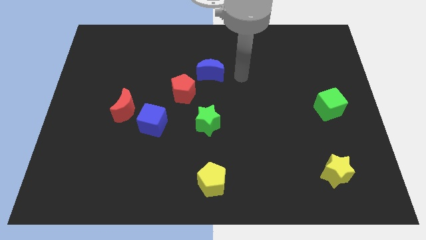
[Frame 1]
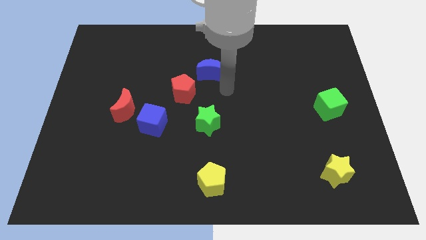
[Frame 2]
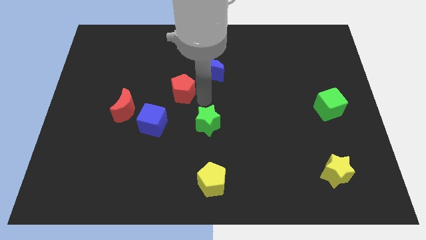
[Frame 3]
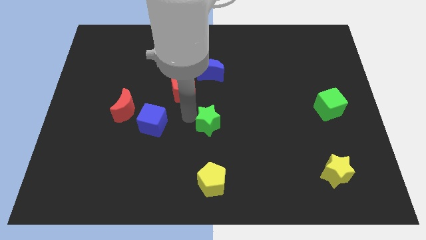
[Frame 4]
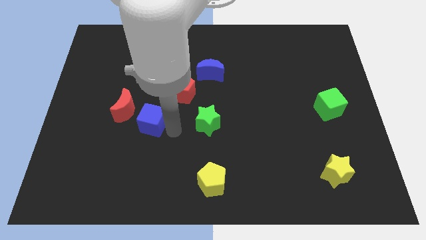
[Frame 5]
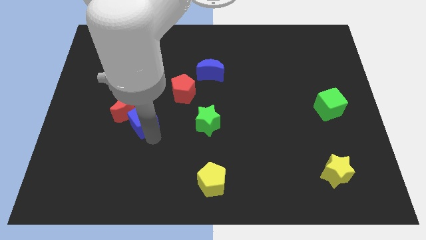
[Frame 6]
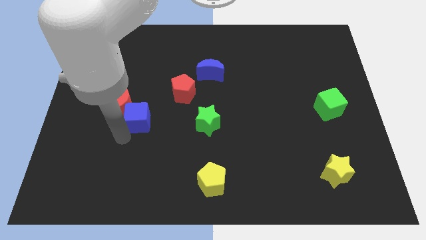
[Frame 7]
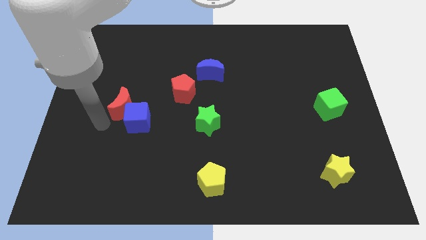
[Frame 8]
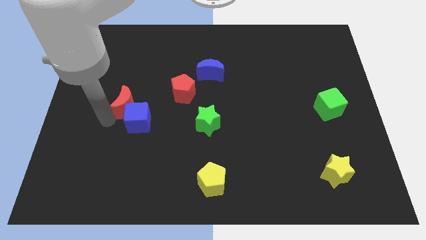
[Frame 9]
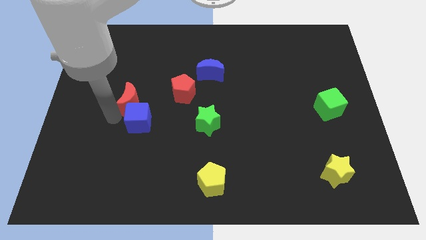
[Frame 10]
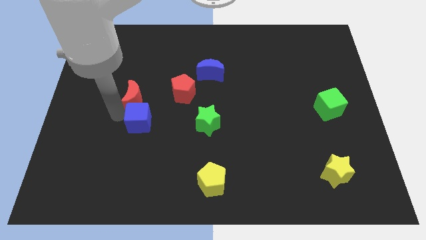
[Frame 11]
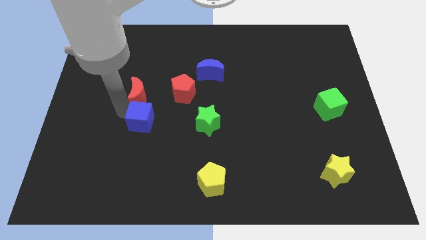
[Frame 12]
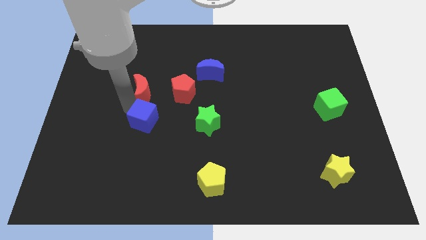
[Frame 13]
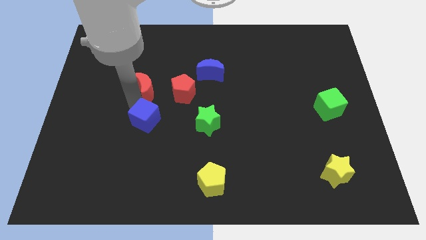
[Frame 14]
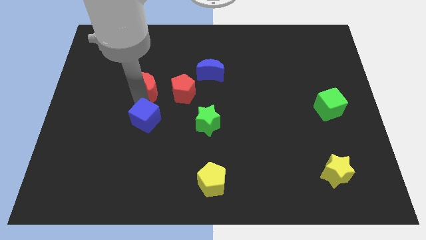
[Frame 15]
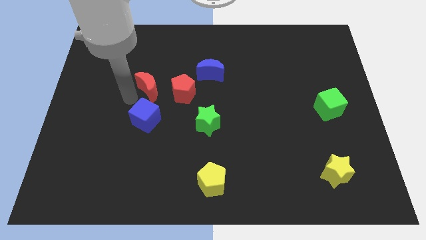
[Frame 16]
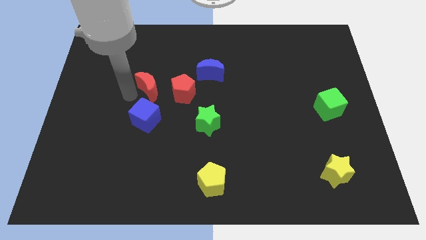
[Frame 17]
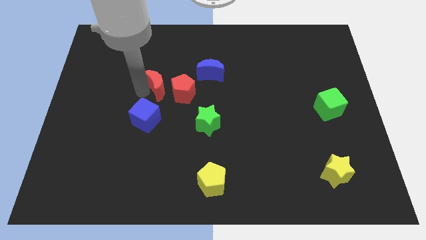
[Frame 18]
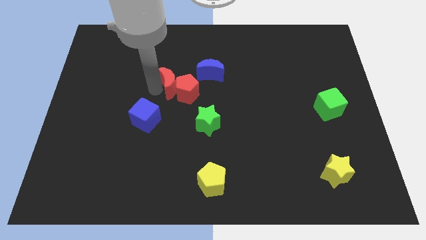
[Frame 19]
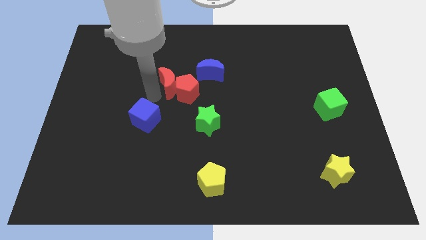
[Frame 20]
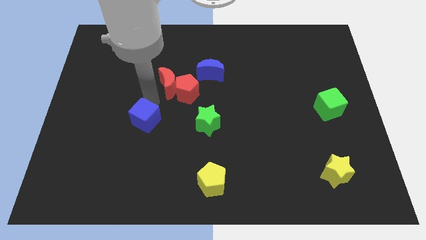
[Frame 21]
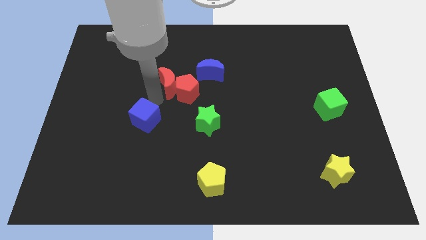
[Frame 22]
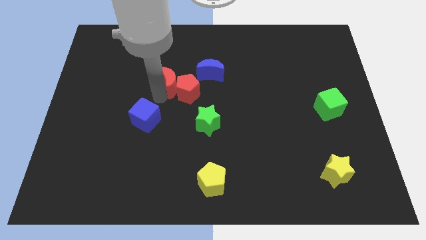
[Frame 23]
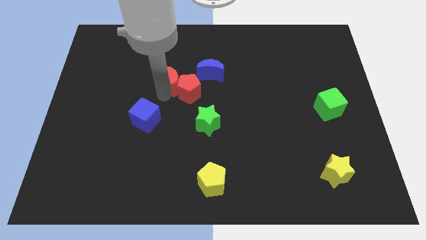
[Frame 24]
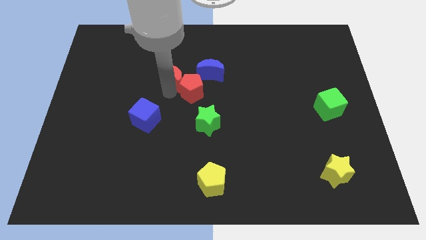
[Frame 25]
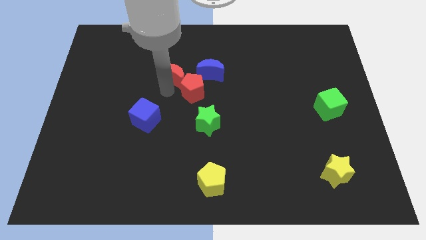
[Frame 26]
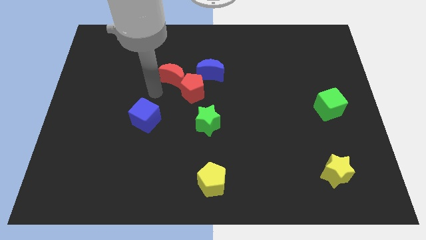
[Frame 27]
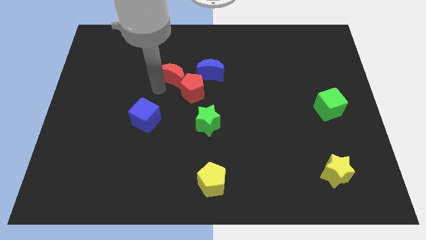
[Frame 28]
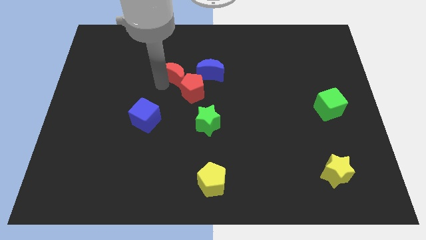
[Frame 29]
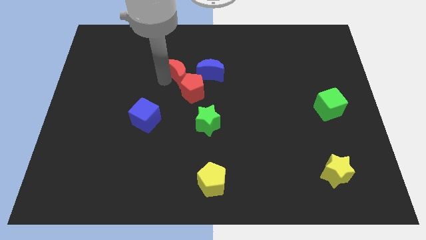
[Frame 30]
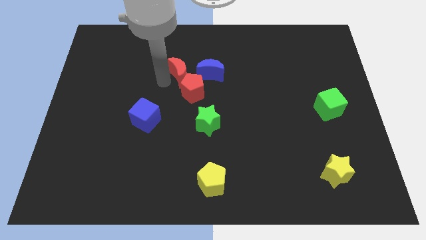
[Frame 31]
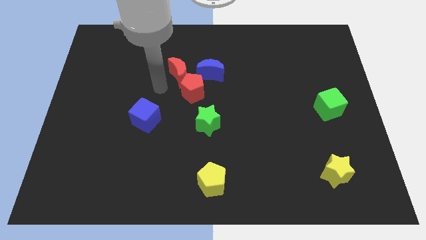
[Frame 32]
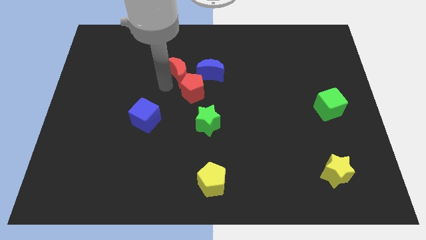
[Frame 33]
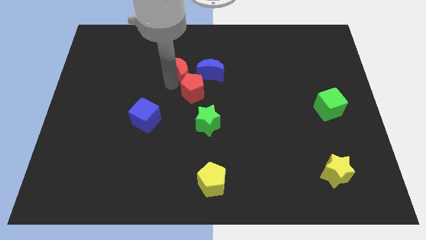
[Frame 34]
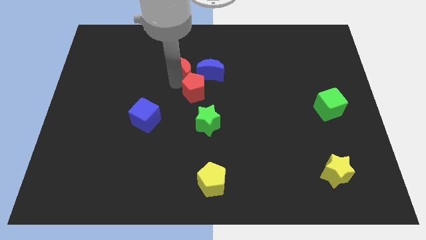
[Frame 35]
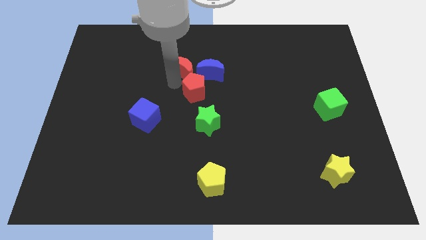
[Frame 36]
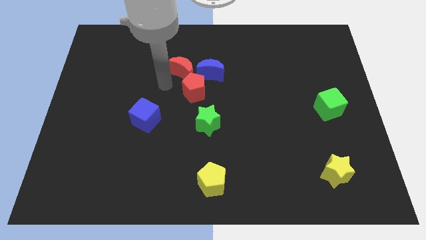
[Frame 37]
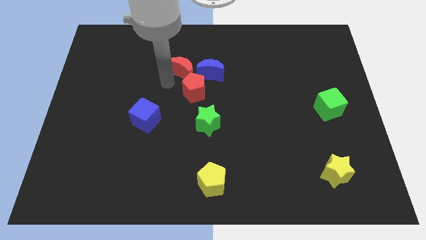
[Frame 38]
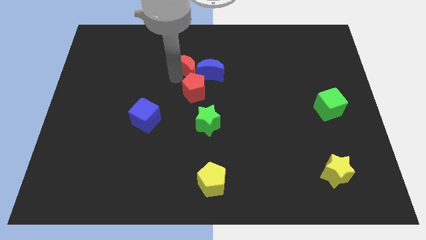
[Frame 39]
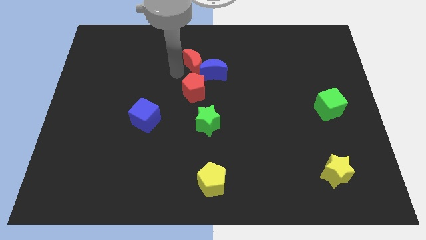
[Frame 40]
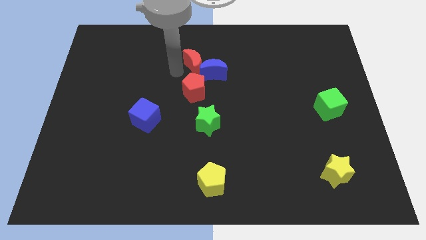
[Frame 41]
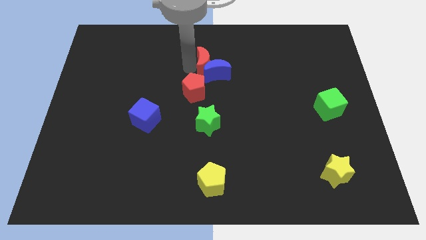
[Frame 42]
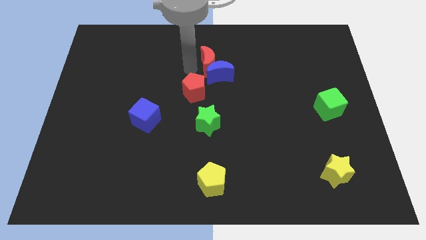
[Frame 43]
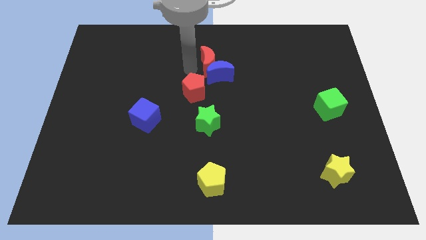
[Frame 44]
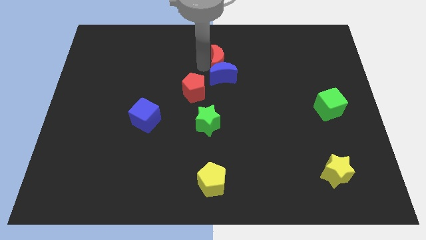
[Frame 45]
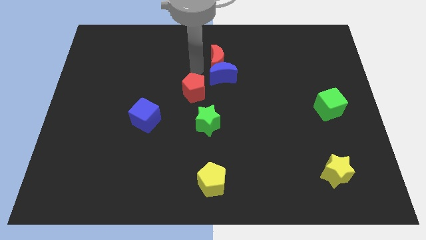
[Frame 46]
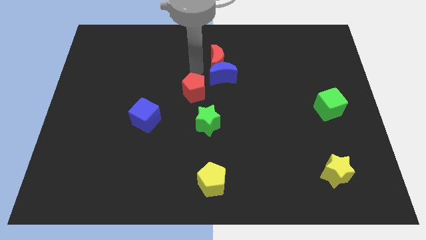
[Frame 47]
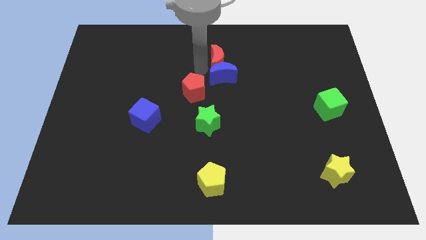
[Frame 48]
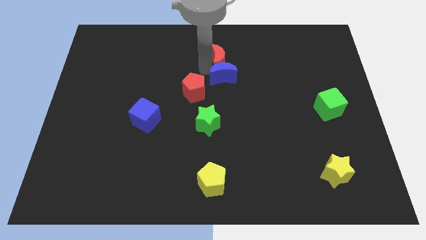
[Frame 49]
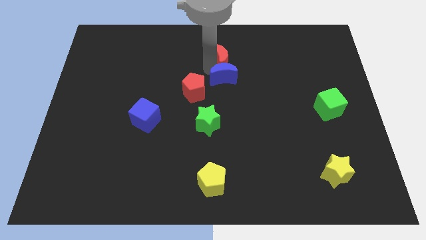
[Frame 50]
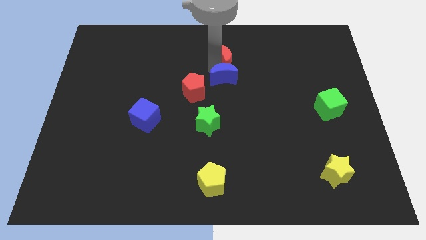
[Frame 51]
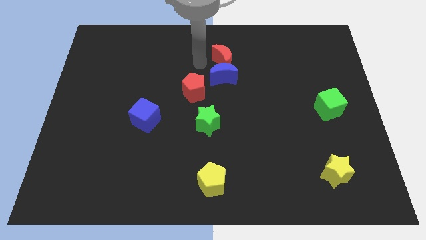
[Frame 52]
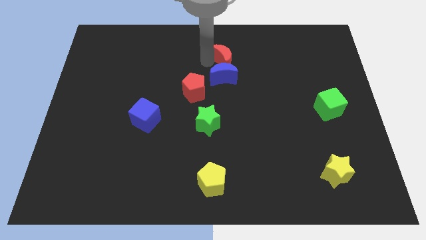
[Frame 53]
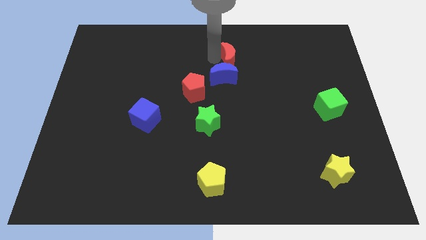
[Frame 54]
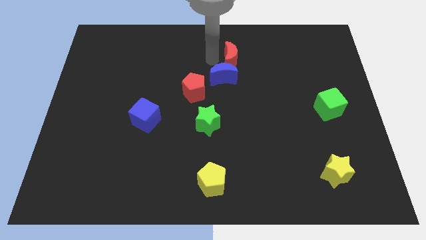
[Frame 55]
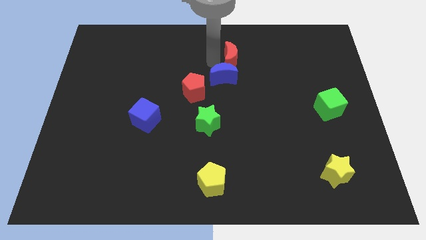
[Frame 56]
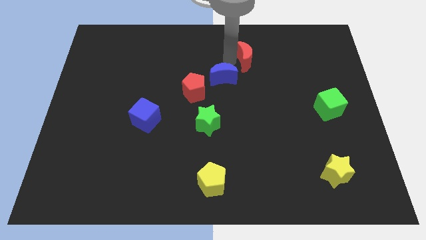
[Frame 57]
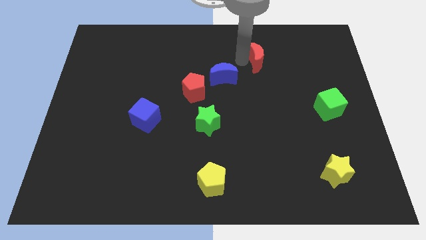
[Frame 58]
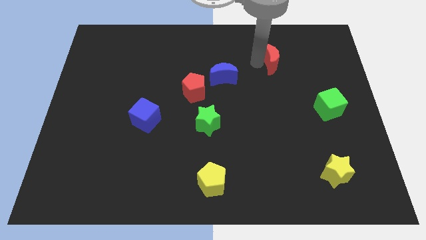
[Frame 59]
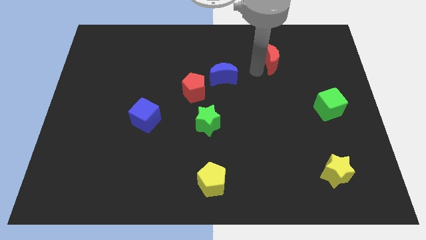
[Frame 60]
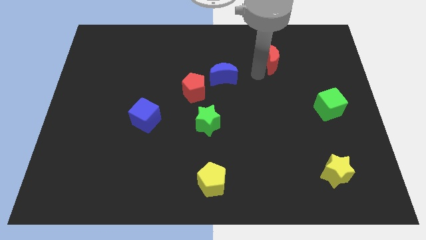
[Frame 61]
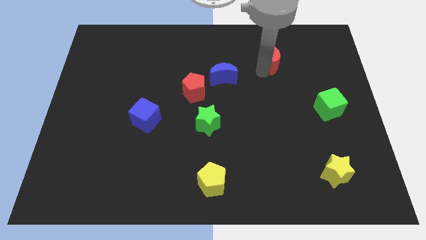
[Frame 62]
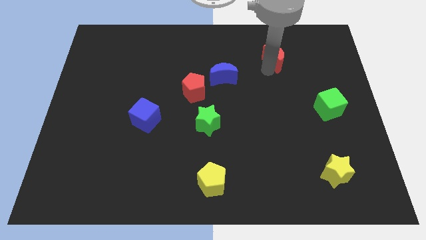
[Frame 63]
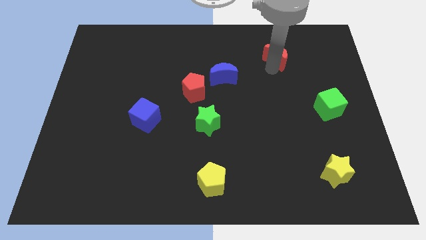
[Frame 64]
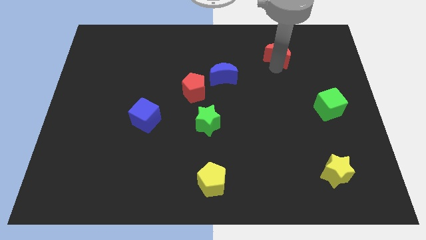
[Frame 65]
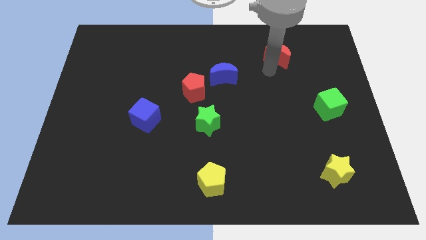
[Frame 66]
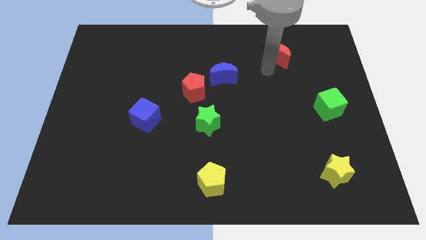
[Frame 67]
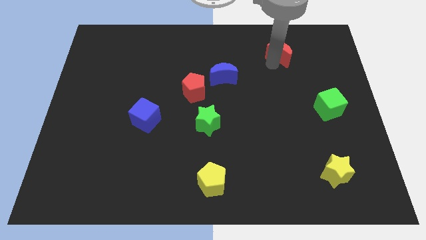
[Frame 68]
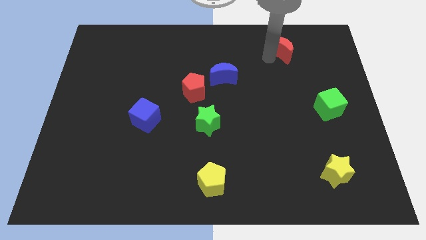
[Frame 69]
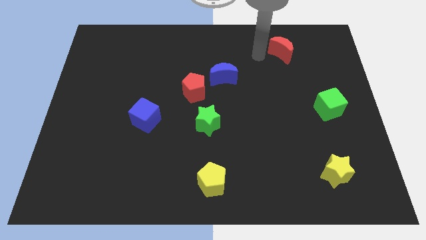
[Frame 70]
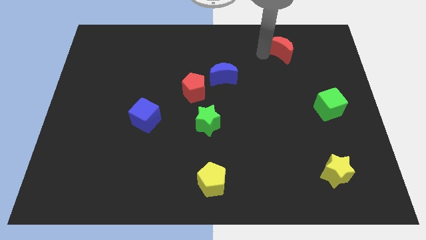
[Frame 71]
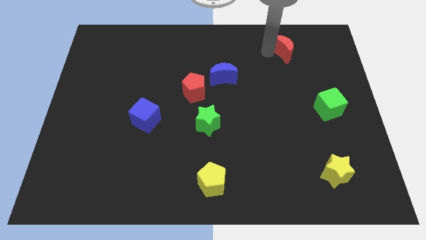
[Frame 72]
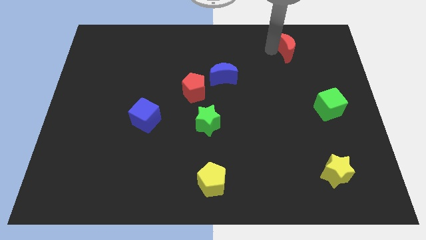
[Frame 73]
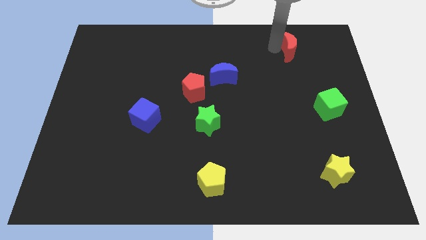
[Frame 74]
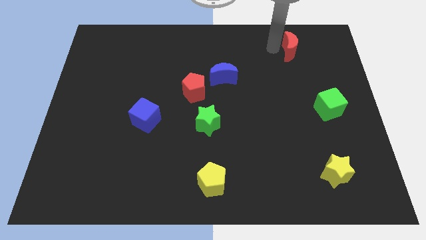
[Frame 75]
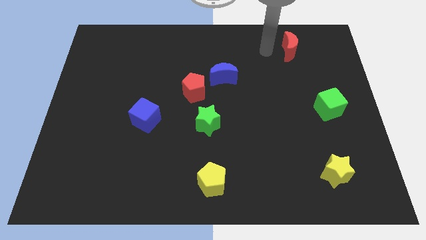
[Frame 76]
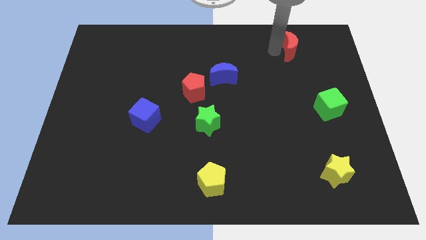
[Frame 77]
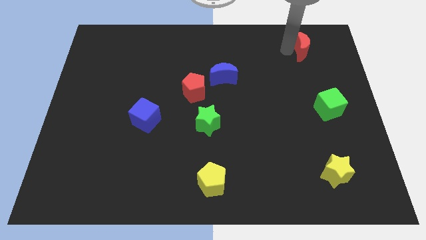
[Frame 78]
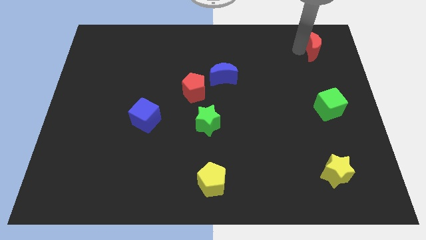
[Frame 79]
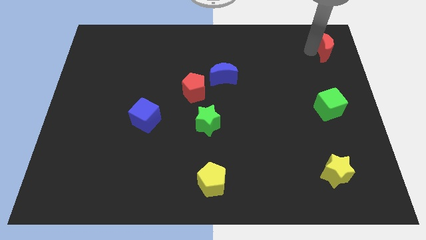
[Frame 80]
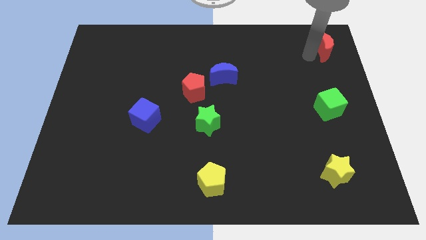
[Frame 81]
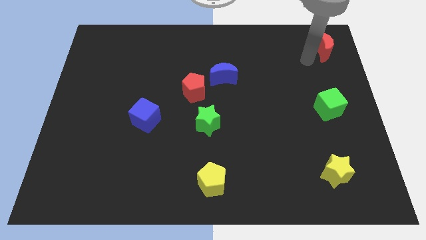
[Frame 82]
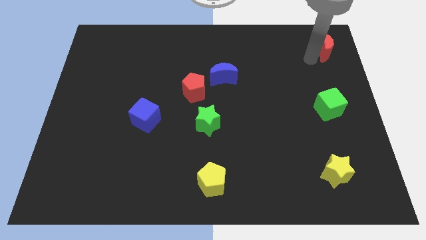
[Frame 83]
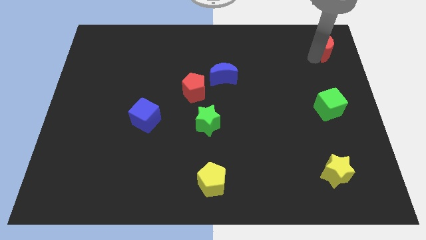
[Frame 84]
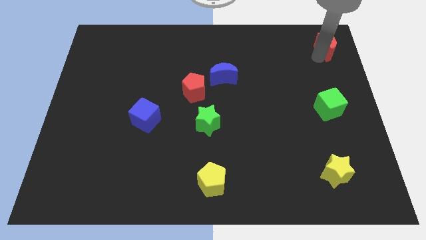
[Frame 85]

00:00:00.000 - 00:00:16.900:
push the red moon to the upper right corner
